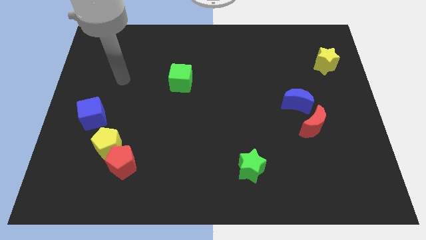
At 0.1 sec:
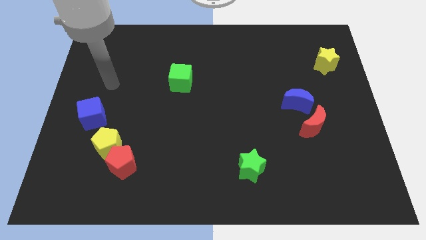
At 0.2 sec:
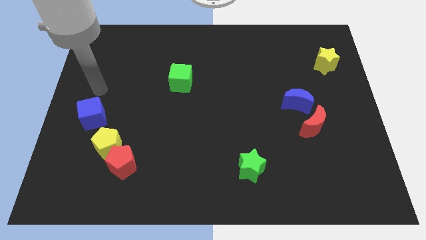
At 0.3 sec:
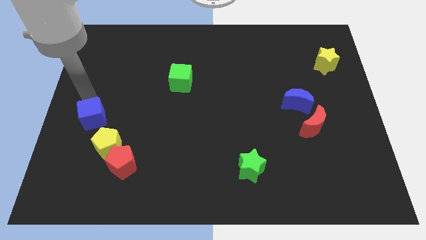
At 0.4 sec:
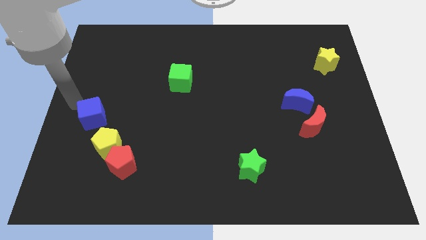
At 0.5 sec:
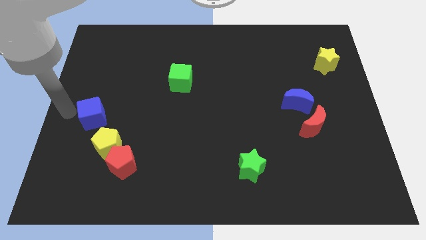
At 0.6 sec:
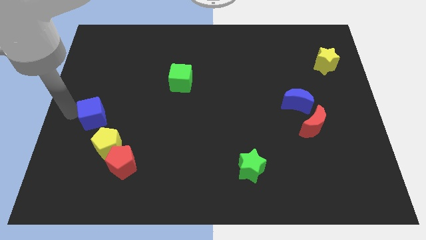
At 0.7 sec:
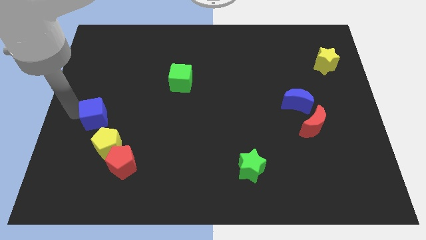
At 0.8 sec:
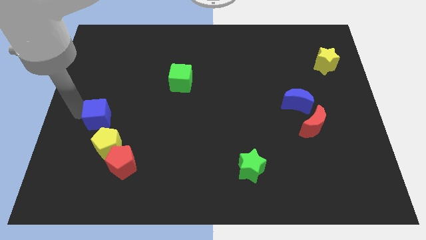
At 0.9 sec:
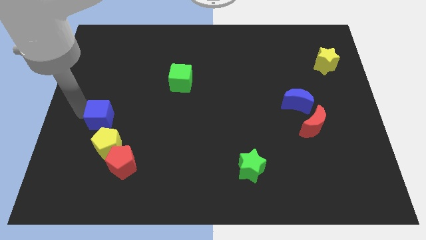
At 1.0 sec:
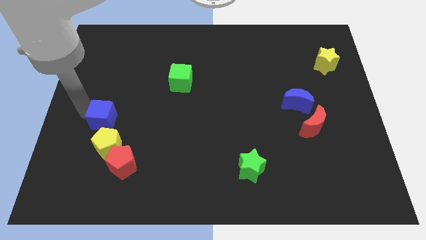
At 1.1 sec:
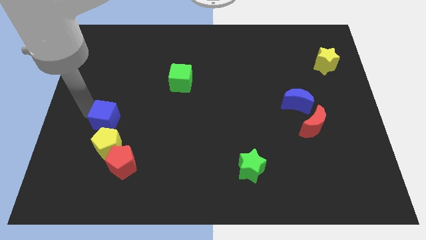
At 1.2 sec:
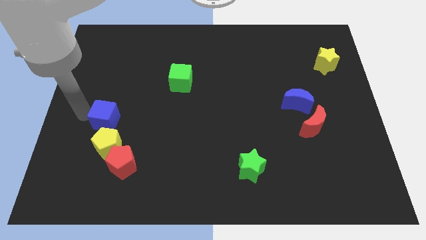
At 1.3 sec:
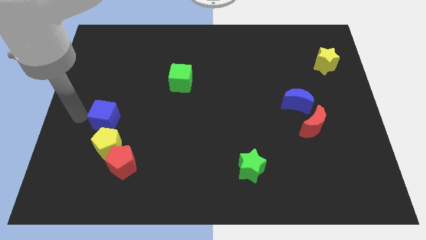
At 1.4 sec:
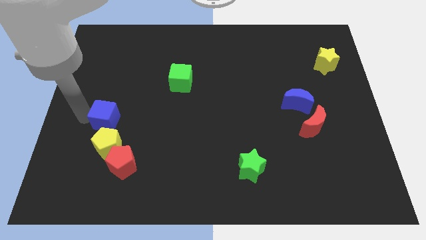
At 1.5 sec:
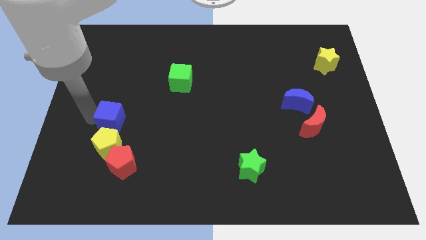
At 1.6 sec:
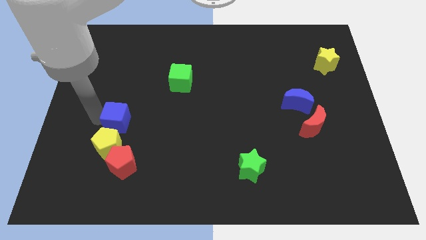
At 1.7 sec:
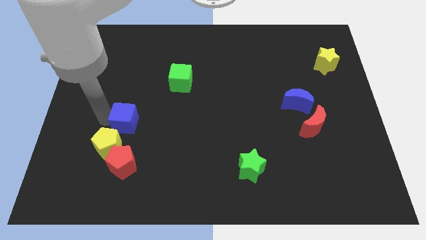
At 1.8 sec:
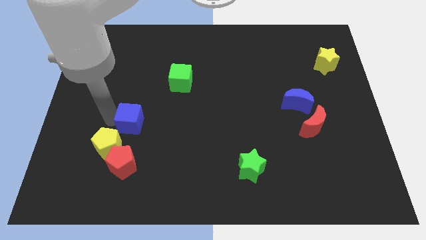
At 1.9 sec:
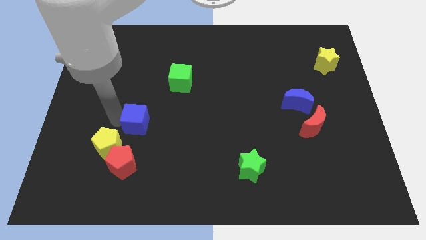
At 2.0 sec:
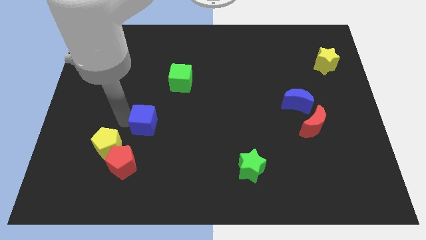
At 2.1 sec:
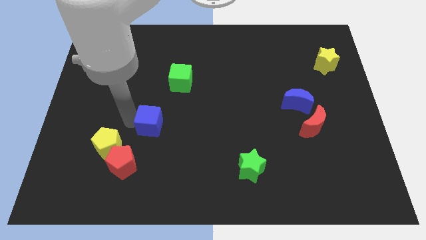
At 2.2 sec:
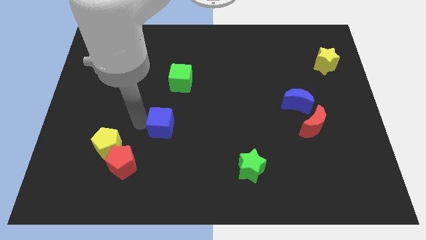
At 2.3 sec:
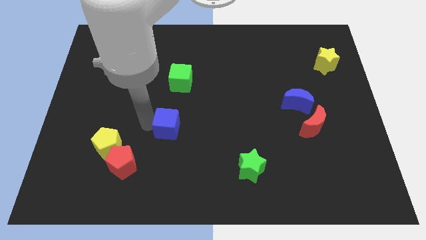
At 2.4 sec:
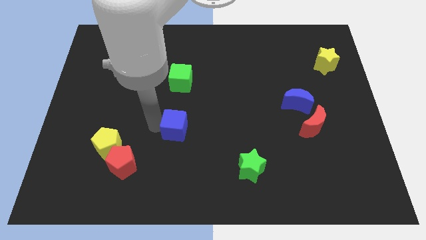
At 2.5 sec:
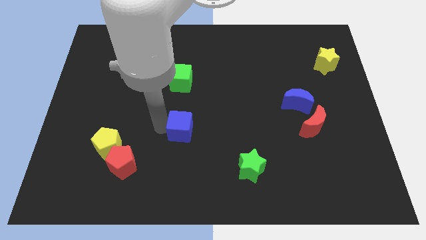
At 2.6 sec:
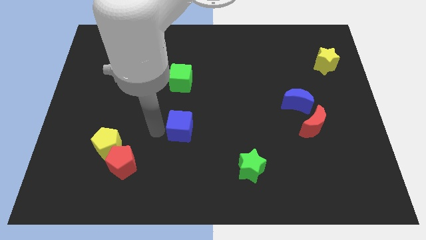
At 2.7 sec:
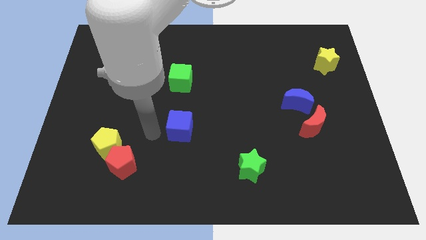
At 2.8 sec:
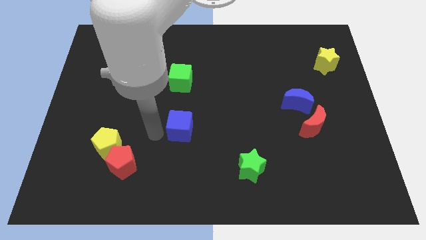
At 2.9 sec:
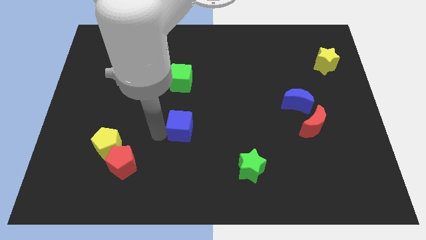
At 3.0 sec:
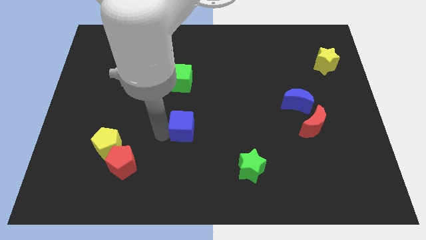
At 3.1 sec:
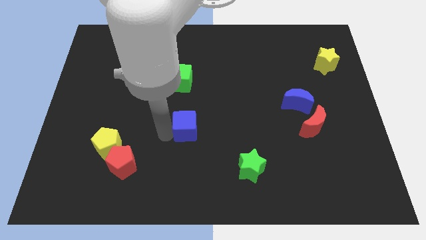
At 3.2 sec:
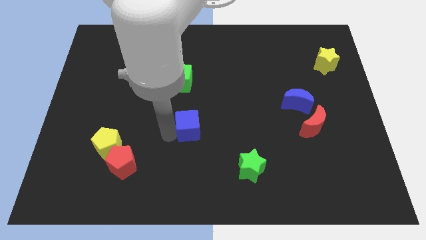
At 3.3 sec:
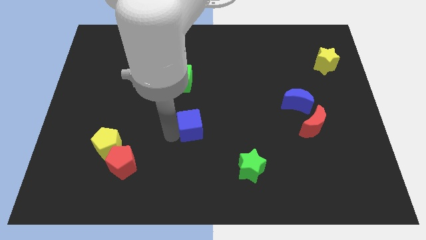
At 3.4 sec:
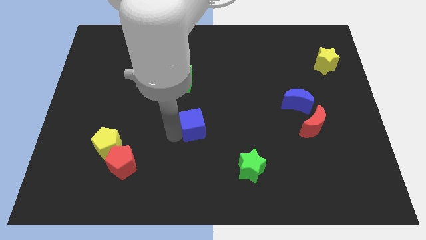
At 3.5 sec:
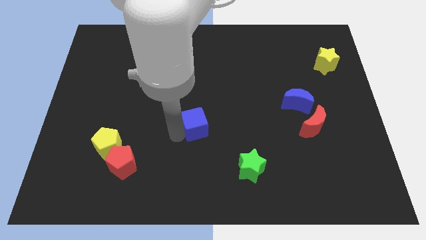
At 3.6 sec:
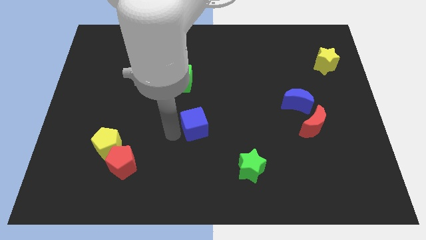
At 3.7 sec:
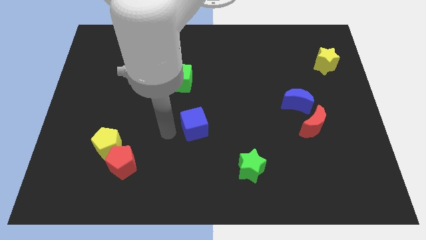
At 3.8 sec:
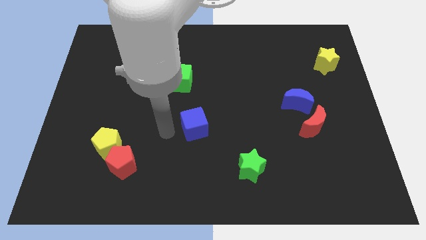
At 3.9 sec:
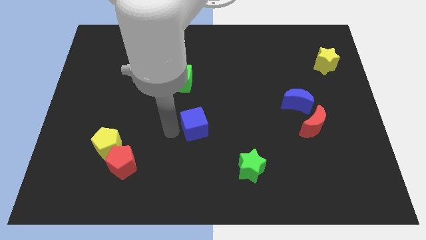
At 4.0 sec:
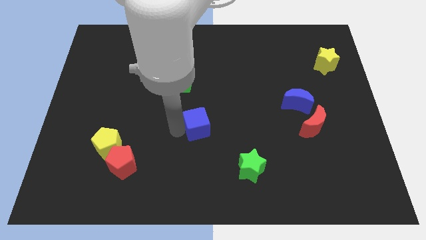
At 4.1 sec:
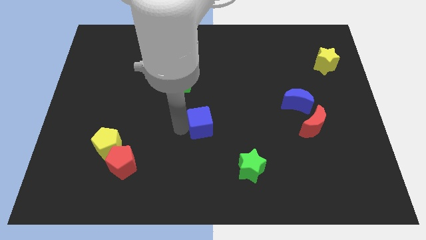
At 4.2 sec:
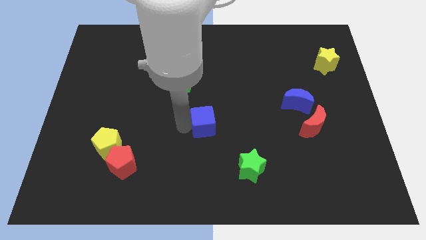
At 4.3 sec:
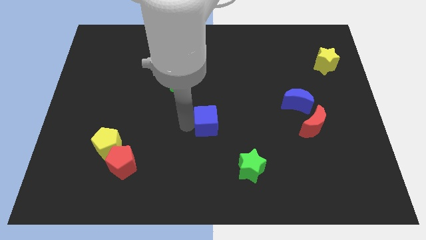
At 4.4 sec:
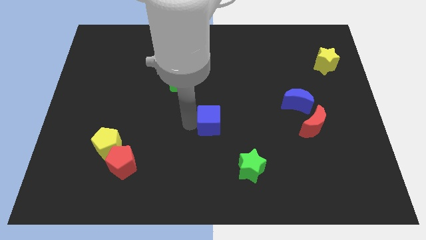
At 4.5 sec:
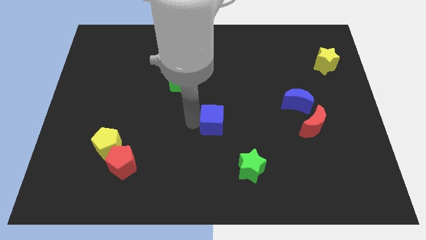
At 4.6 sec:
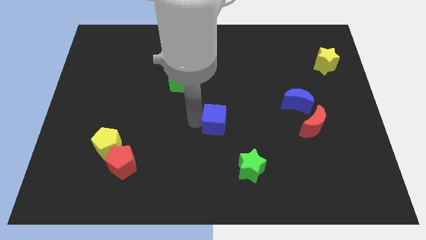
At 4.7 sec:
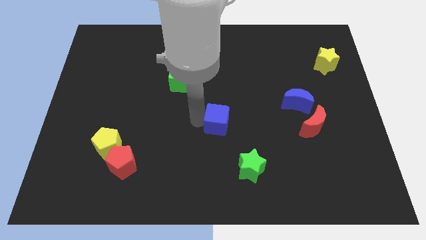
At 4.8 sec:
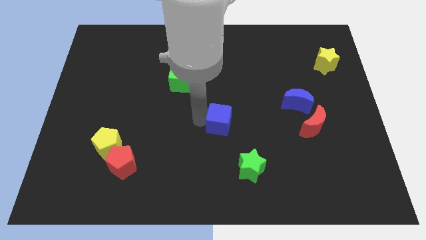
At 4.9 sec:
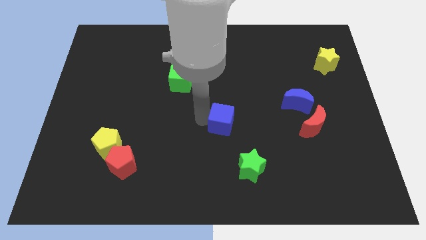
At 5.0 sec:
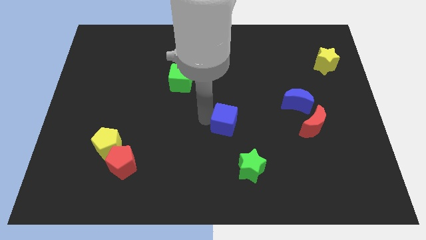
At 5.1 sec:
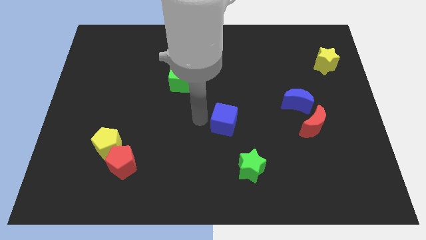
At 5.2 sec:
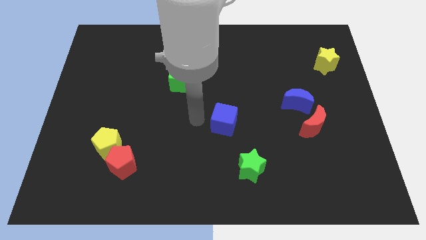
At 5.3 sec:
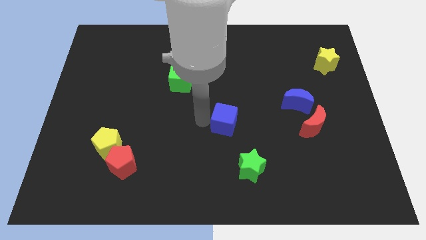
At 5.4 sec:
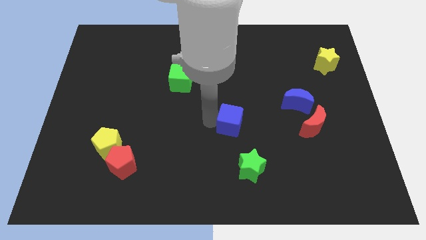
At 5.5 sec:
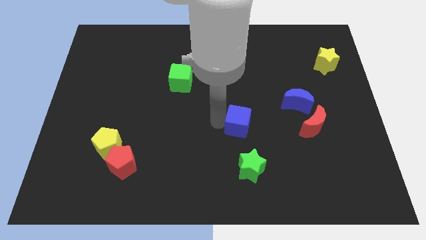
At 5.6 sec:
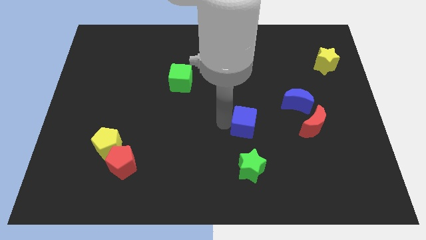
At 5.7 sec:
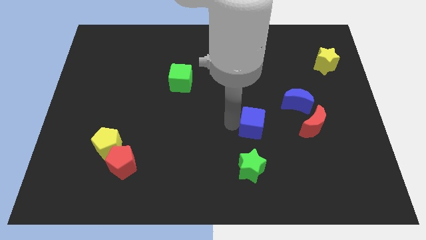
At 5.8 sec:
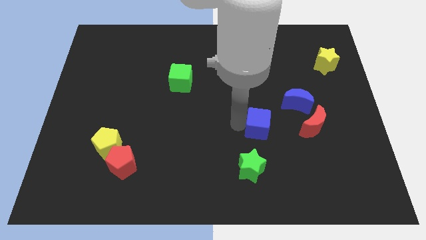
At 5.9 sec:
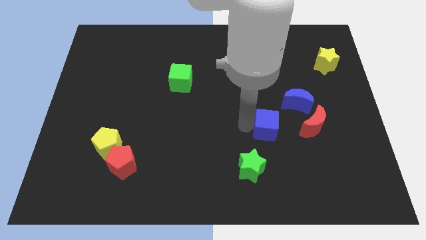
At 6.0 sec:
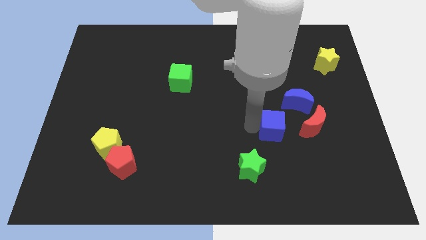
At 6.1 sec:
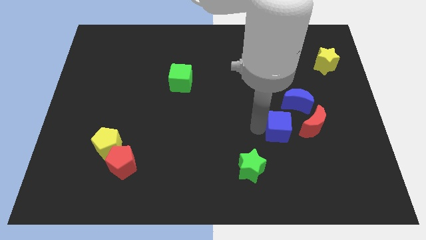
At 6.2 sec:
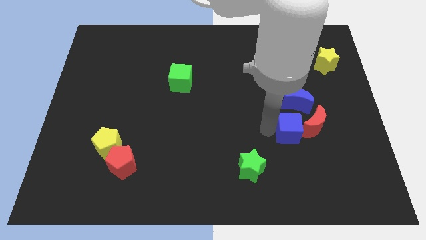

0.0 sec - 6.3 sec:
push the blue cube to the red moon

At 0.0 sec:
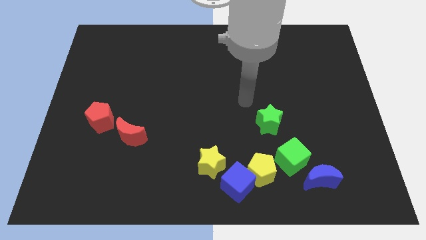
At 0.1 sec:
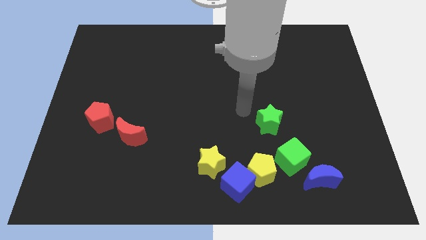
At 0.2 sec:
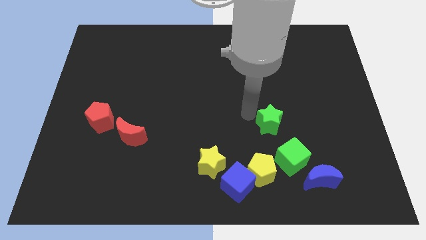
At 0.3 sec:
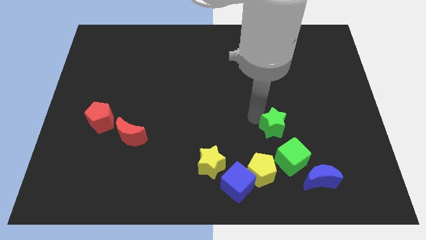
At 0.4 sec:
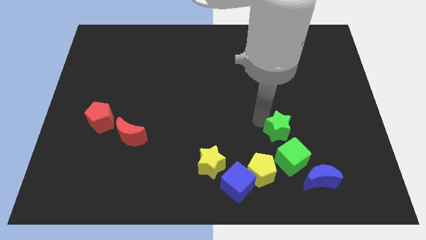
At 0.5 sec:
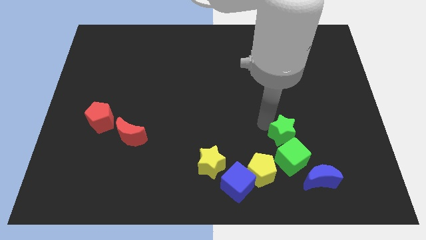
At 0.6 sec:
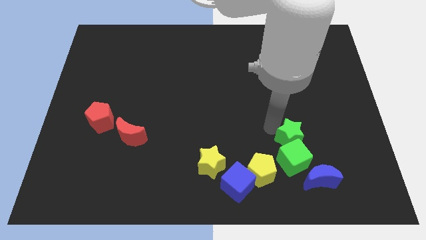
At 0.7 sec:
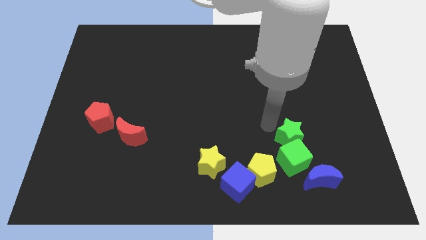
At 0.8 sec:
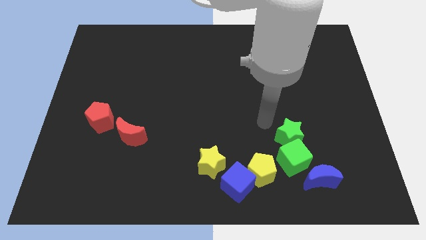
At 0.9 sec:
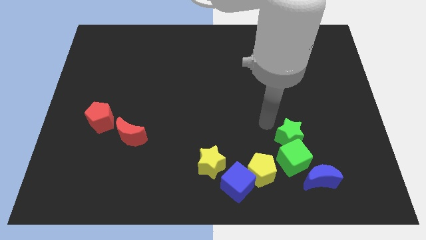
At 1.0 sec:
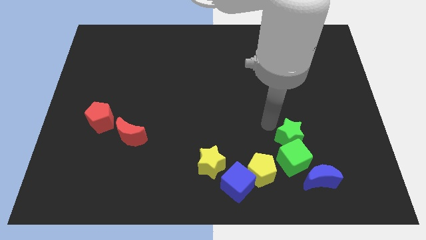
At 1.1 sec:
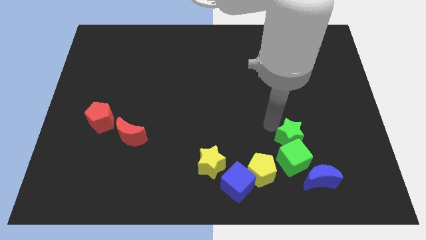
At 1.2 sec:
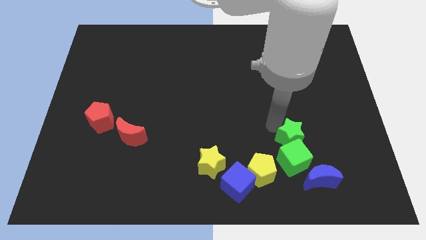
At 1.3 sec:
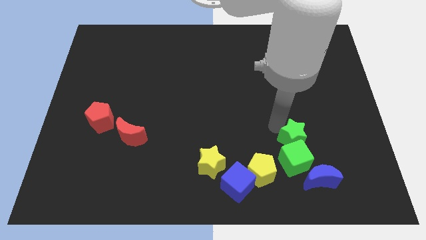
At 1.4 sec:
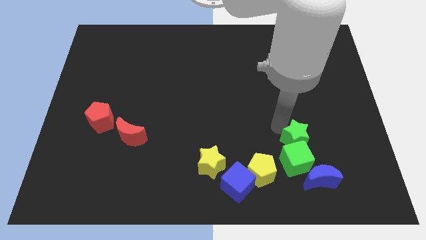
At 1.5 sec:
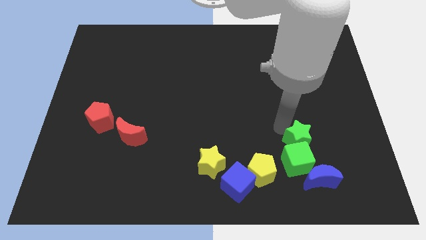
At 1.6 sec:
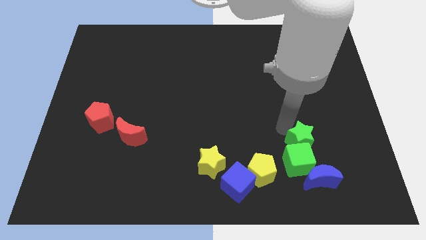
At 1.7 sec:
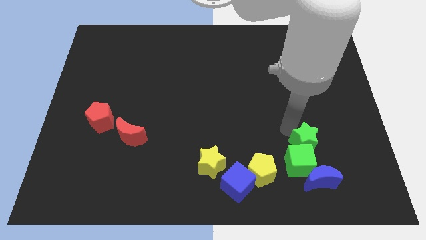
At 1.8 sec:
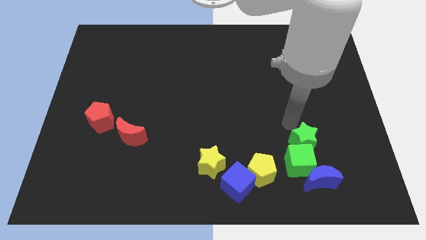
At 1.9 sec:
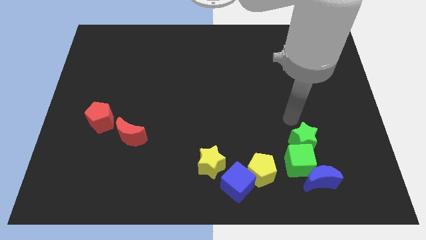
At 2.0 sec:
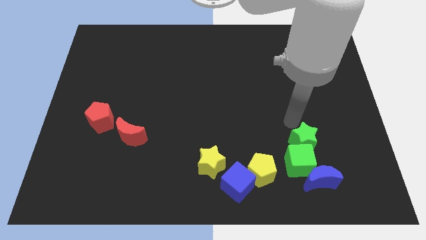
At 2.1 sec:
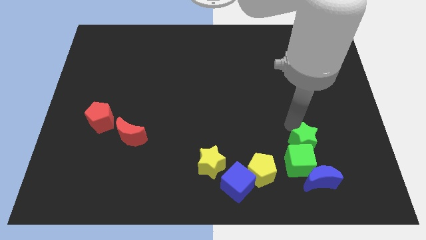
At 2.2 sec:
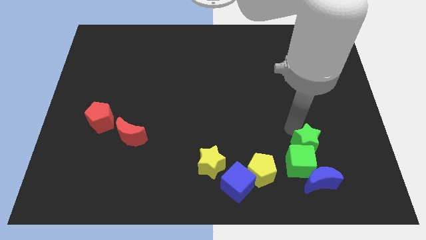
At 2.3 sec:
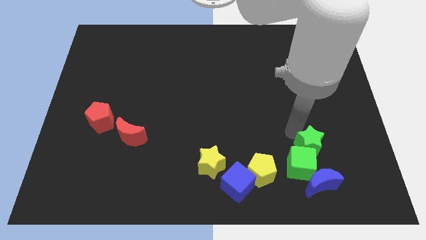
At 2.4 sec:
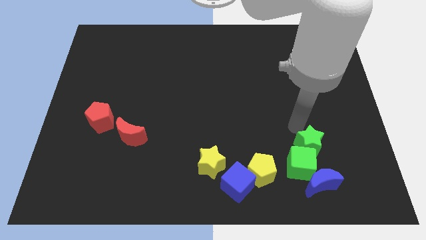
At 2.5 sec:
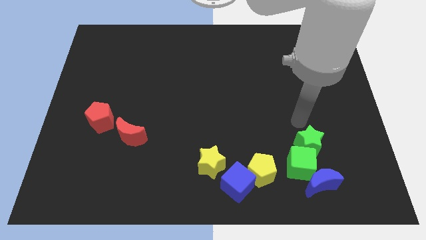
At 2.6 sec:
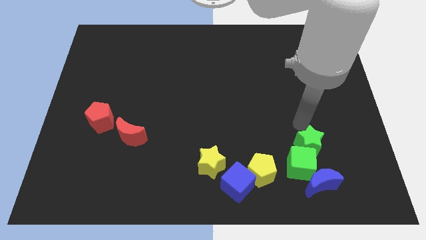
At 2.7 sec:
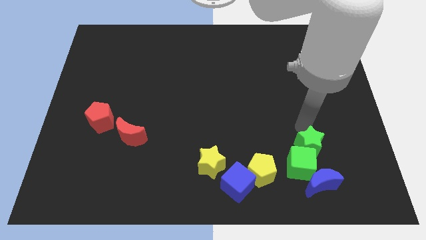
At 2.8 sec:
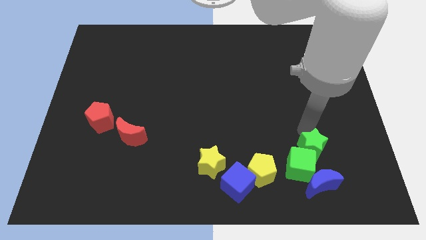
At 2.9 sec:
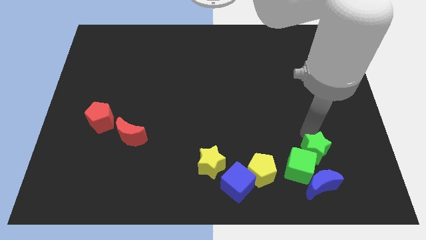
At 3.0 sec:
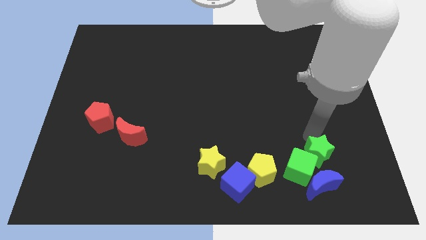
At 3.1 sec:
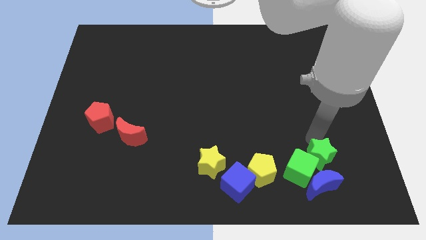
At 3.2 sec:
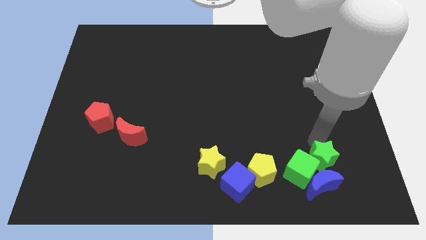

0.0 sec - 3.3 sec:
move the green star towards the blue moon
